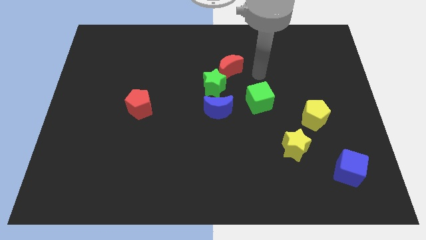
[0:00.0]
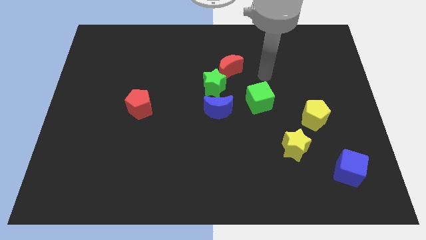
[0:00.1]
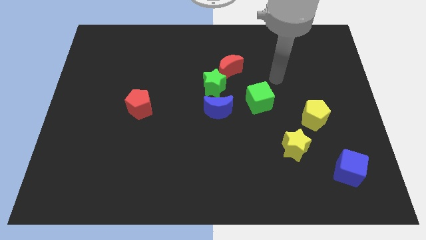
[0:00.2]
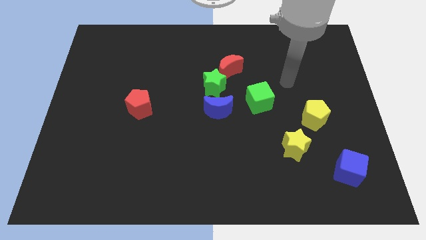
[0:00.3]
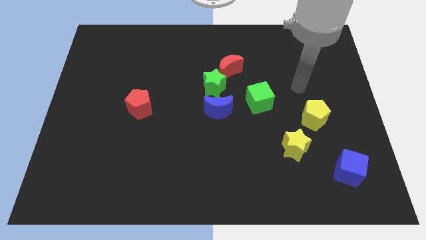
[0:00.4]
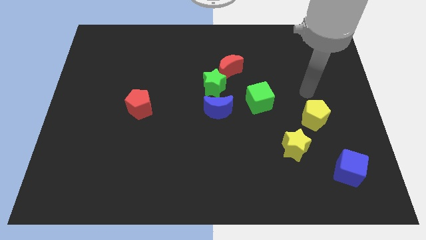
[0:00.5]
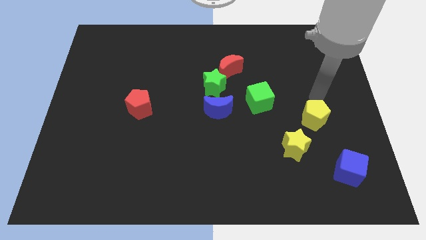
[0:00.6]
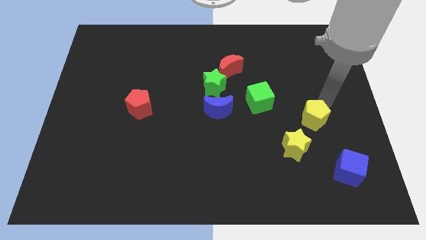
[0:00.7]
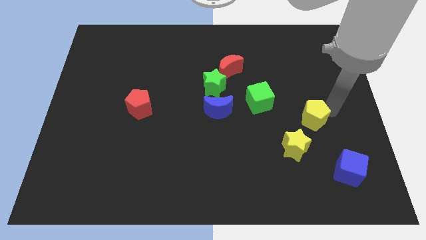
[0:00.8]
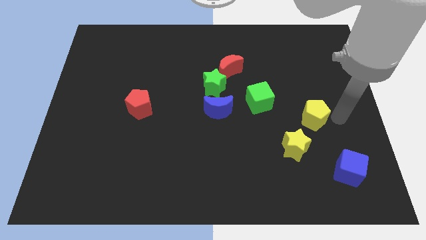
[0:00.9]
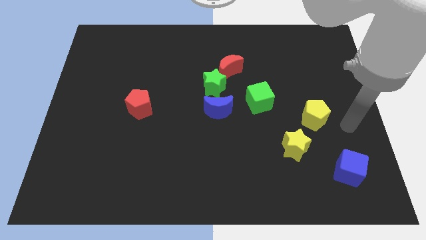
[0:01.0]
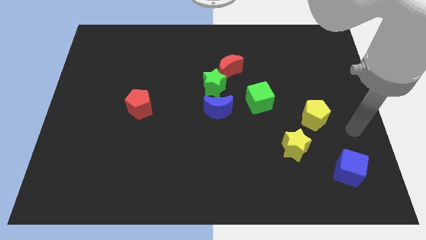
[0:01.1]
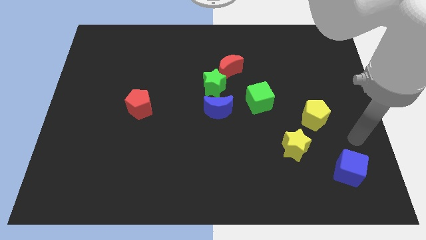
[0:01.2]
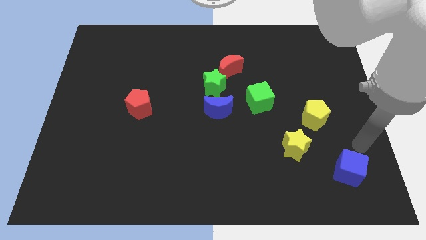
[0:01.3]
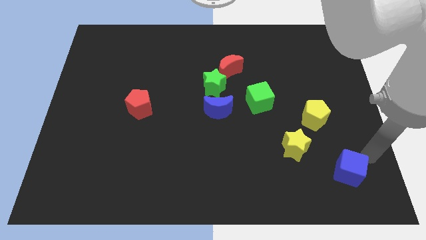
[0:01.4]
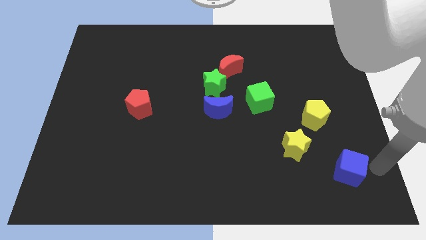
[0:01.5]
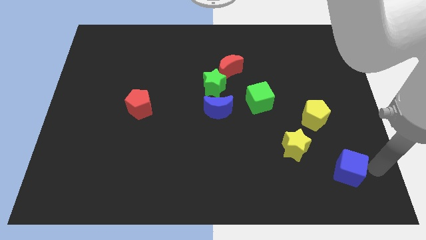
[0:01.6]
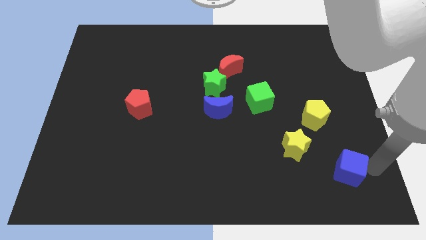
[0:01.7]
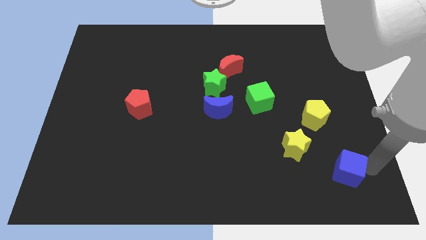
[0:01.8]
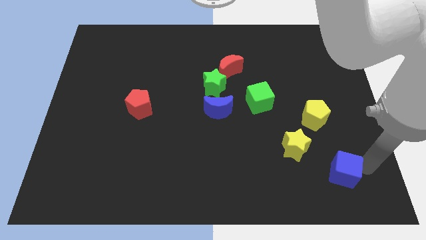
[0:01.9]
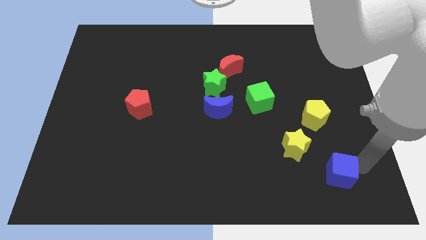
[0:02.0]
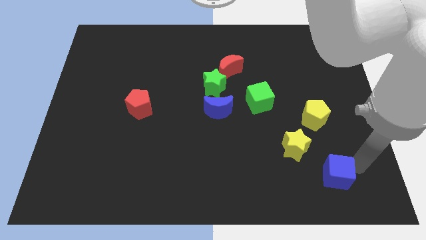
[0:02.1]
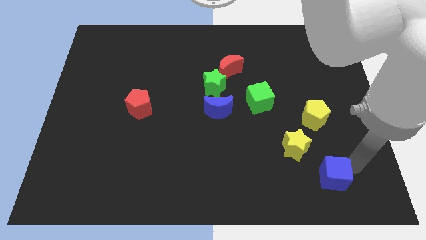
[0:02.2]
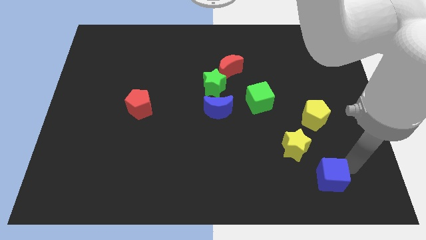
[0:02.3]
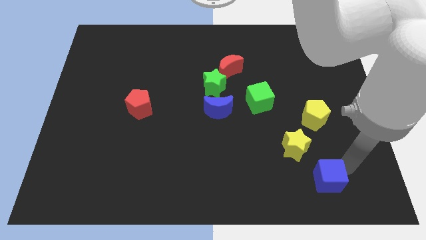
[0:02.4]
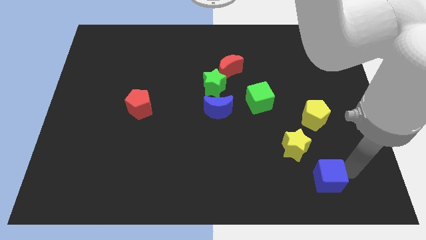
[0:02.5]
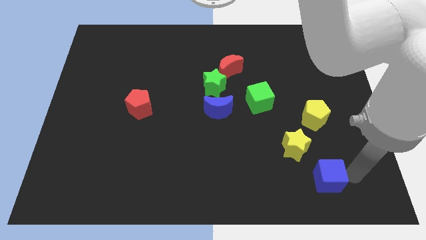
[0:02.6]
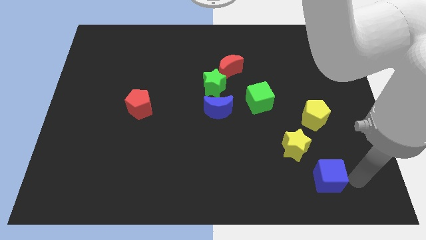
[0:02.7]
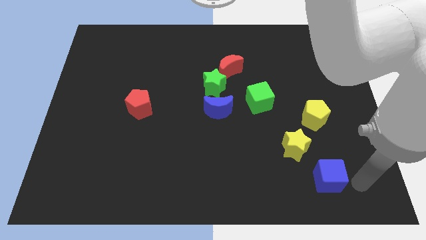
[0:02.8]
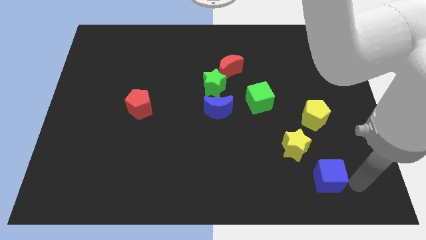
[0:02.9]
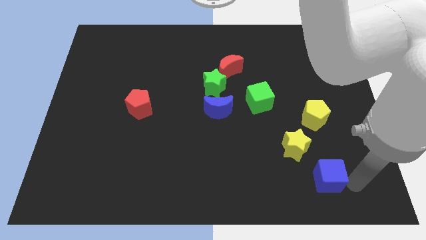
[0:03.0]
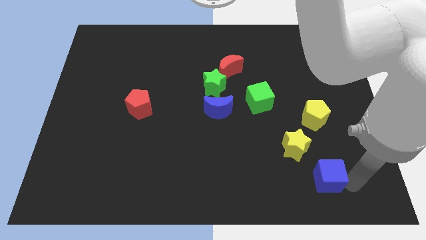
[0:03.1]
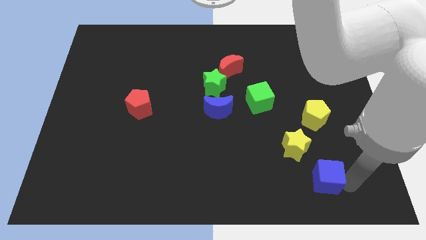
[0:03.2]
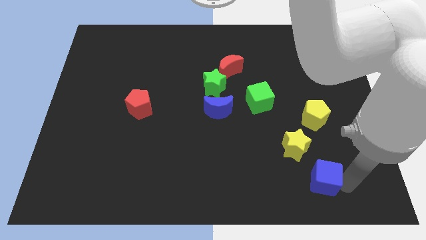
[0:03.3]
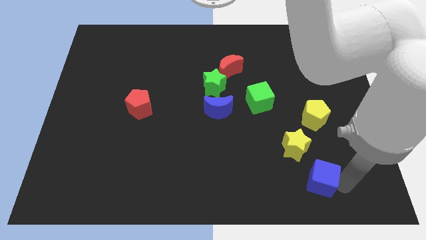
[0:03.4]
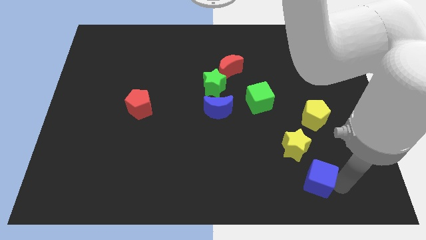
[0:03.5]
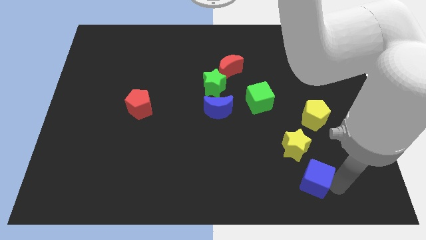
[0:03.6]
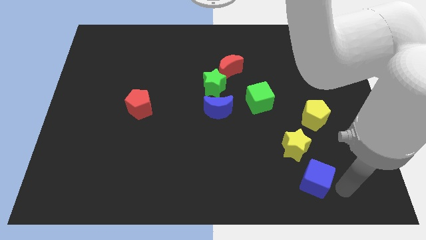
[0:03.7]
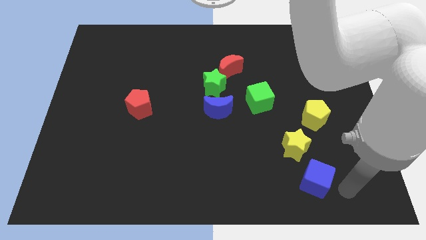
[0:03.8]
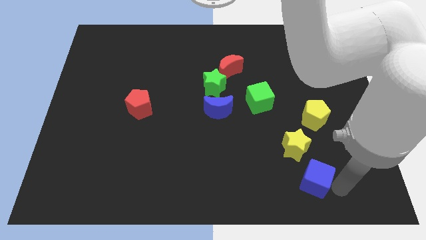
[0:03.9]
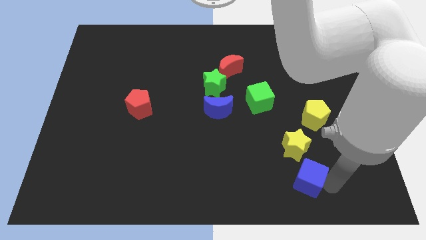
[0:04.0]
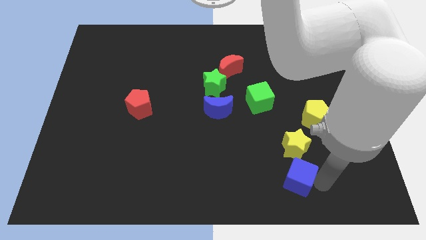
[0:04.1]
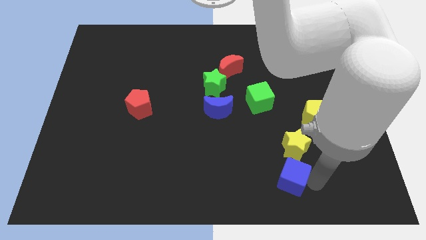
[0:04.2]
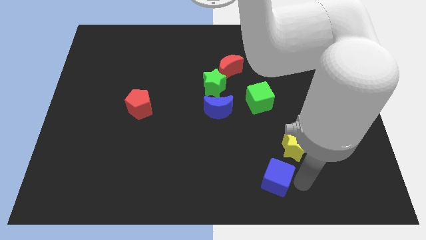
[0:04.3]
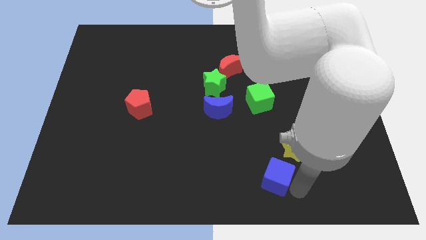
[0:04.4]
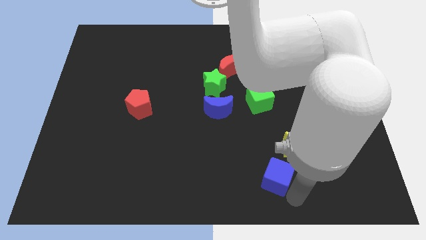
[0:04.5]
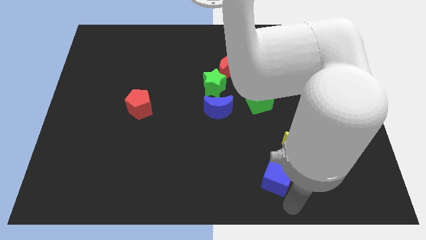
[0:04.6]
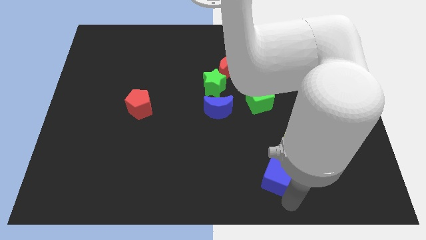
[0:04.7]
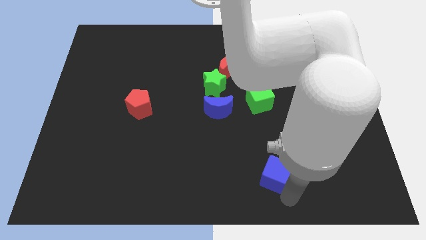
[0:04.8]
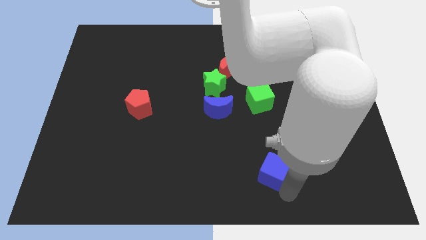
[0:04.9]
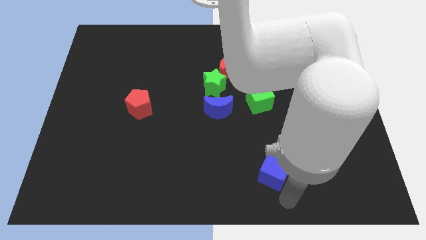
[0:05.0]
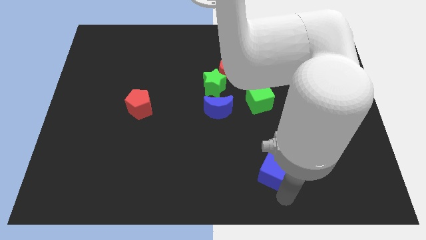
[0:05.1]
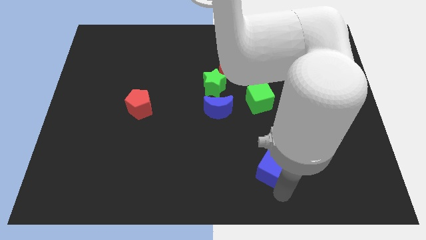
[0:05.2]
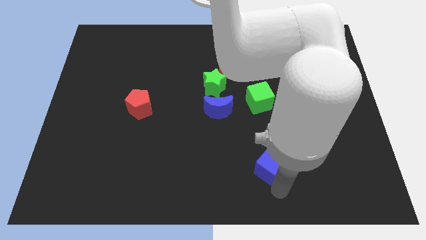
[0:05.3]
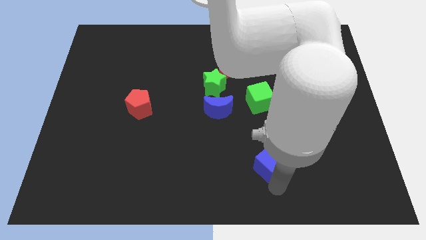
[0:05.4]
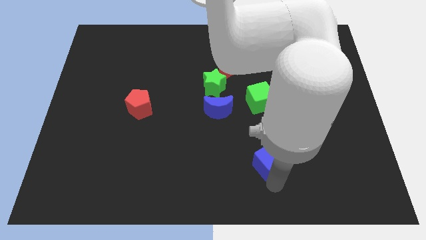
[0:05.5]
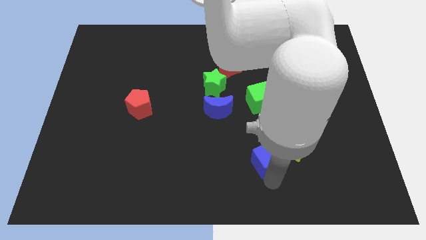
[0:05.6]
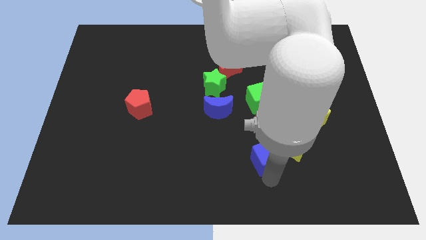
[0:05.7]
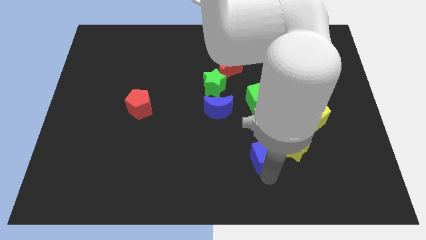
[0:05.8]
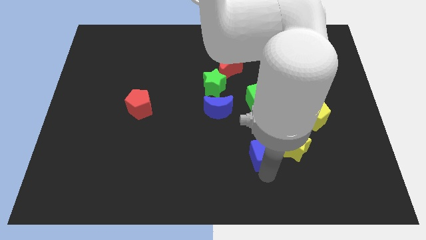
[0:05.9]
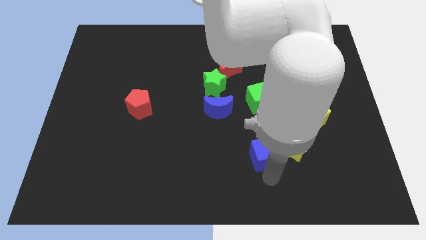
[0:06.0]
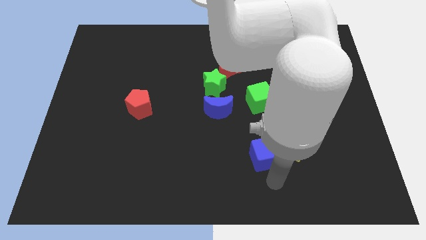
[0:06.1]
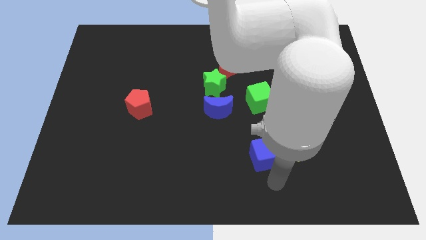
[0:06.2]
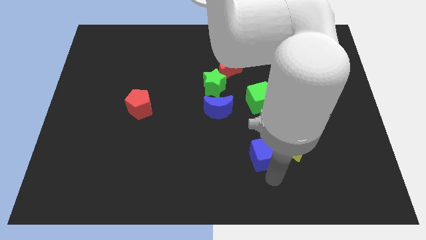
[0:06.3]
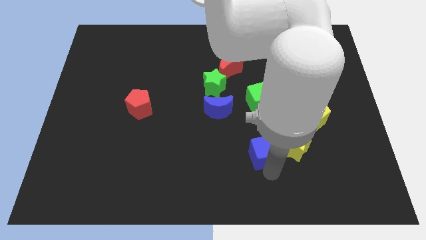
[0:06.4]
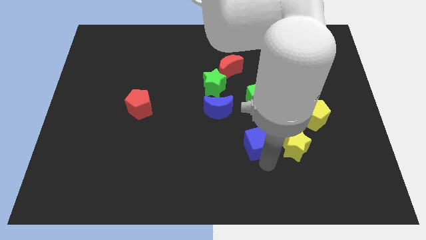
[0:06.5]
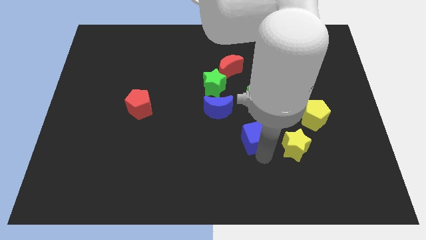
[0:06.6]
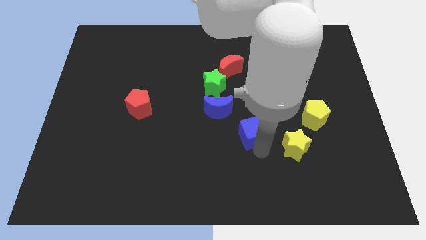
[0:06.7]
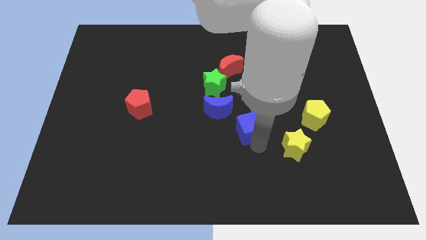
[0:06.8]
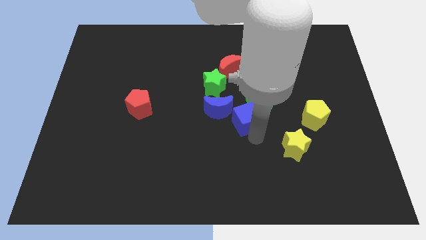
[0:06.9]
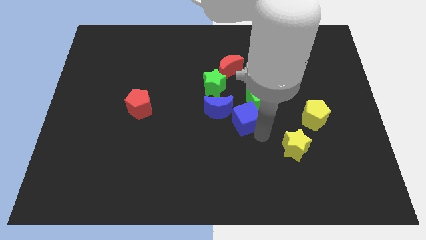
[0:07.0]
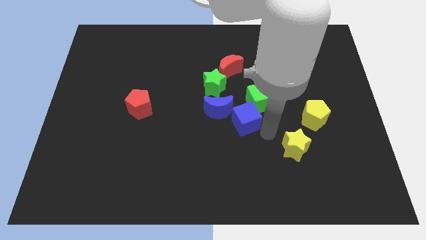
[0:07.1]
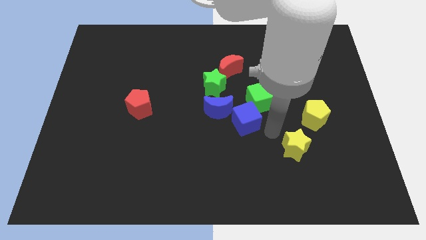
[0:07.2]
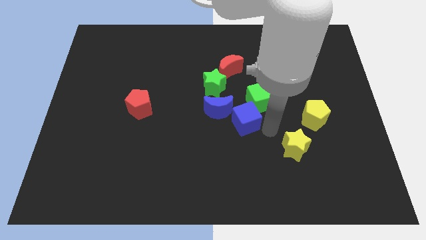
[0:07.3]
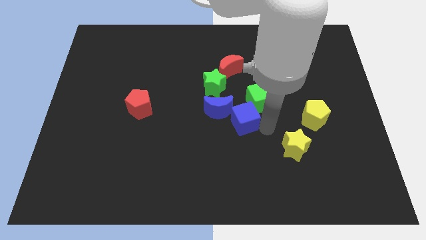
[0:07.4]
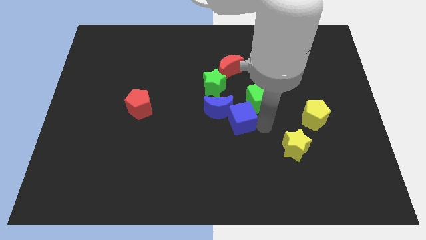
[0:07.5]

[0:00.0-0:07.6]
push the blue cube towards the blue moon

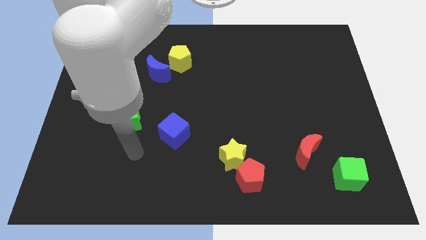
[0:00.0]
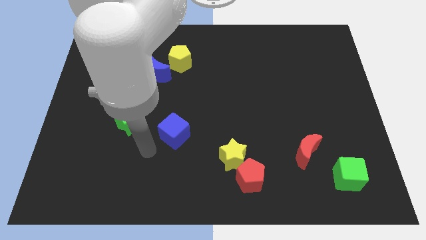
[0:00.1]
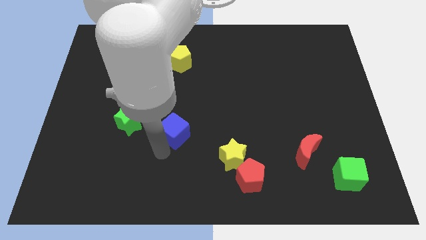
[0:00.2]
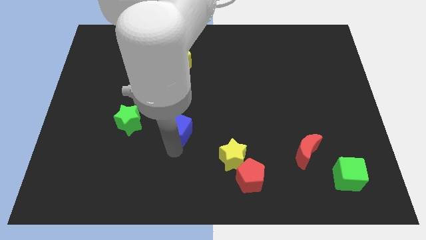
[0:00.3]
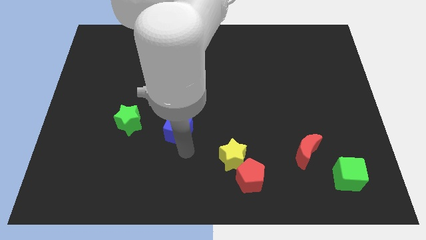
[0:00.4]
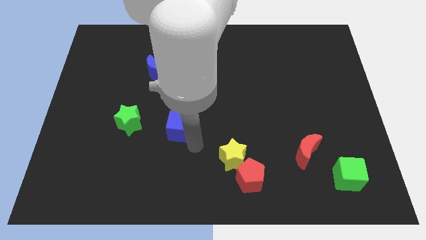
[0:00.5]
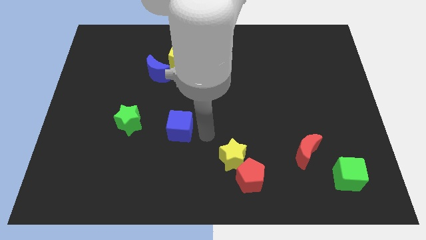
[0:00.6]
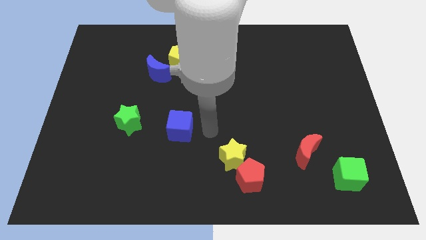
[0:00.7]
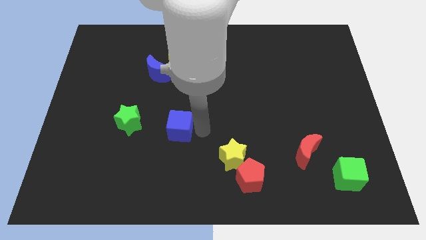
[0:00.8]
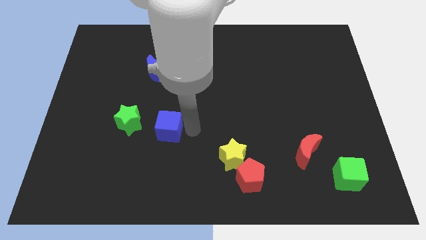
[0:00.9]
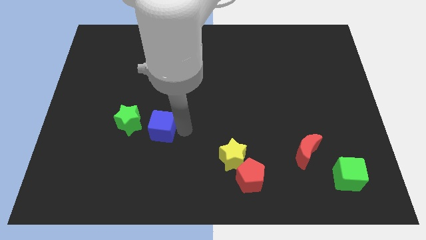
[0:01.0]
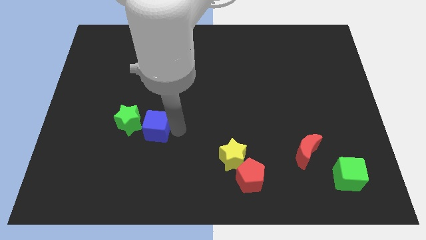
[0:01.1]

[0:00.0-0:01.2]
slide the blue cube to the green star
